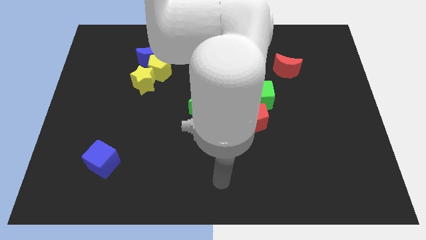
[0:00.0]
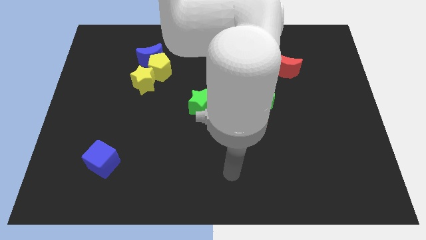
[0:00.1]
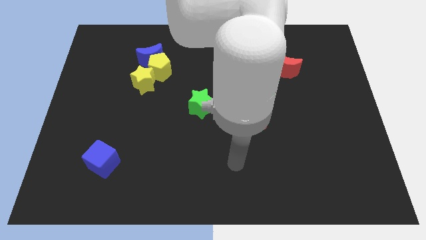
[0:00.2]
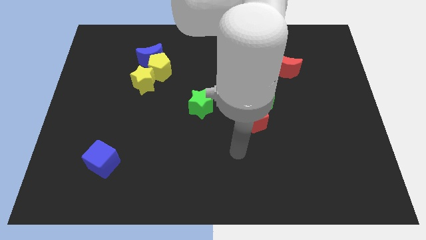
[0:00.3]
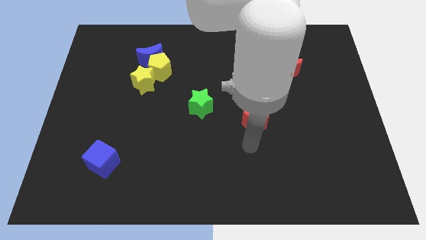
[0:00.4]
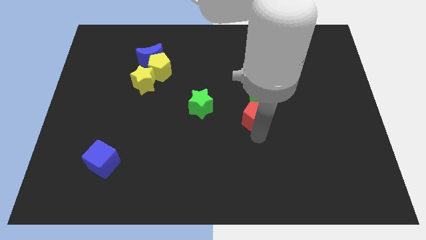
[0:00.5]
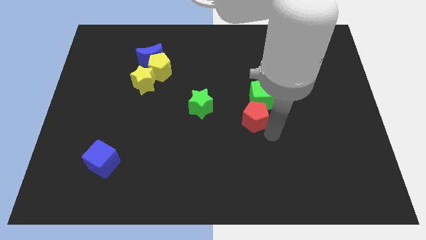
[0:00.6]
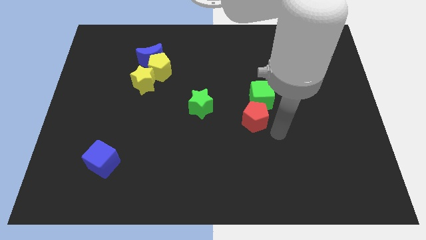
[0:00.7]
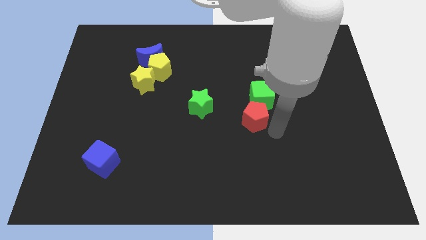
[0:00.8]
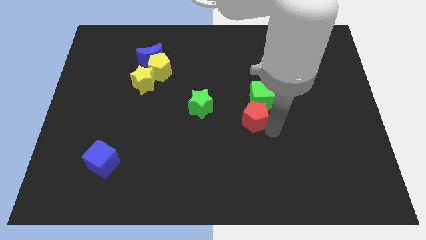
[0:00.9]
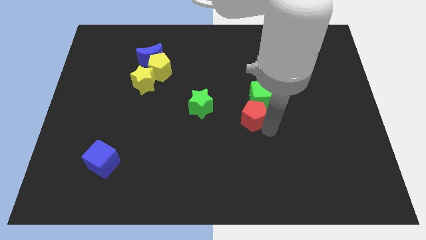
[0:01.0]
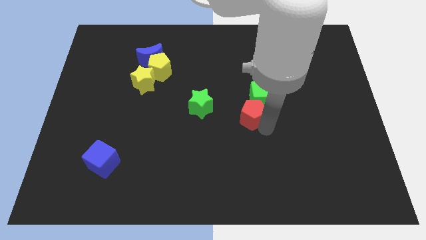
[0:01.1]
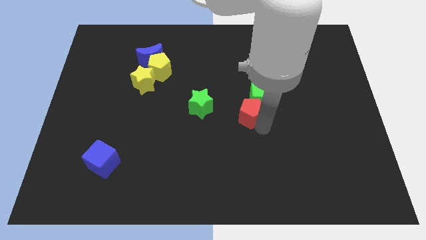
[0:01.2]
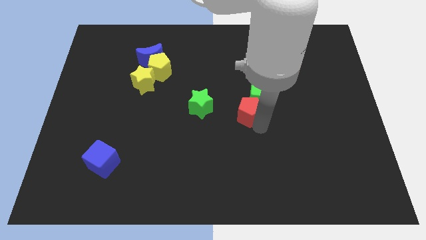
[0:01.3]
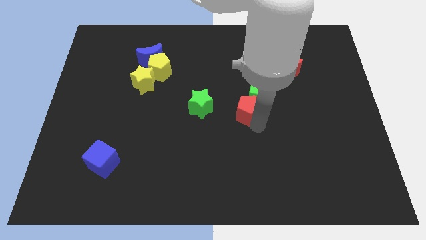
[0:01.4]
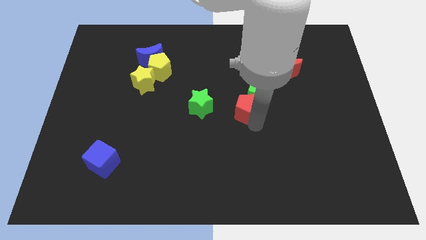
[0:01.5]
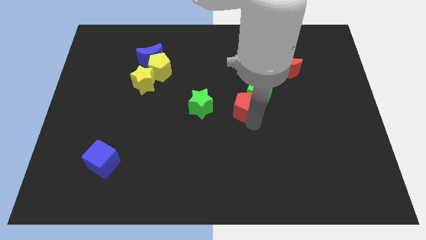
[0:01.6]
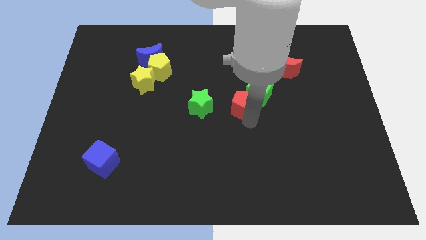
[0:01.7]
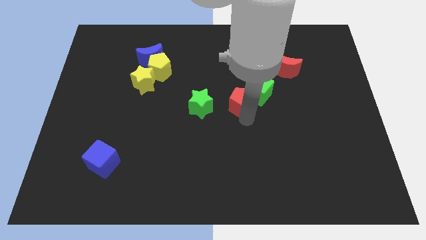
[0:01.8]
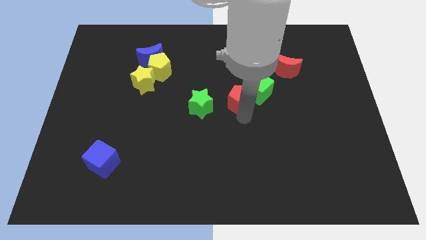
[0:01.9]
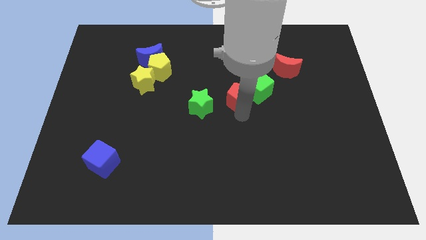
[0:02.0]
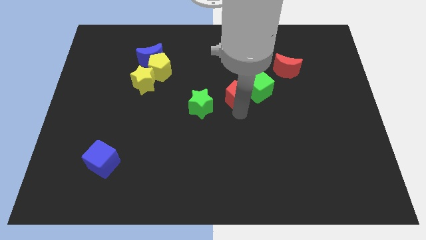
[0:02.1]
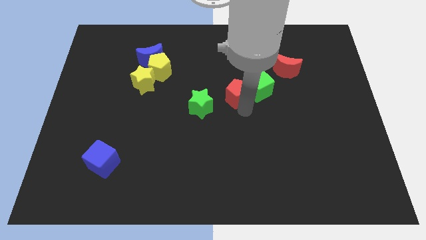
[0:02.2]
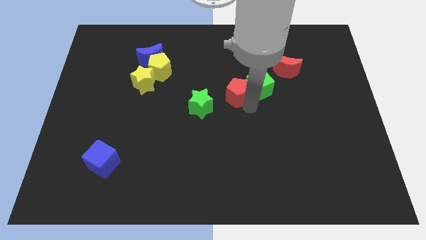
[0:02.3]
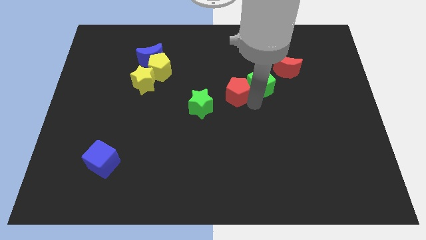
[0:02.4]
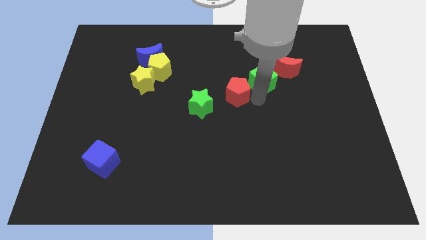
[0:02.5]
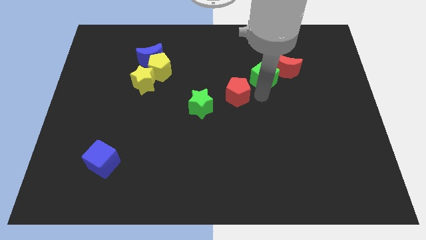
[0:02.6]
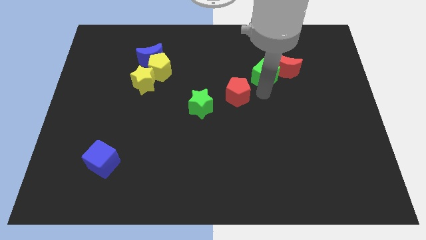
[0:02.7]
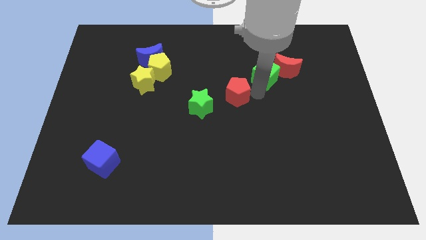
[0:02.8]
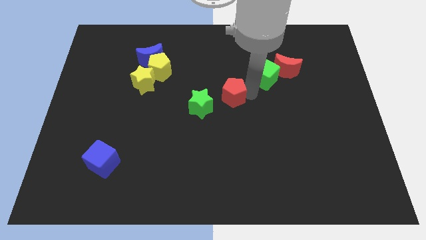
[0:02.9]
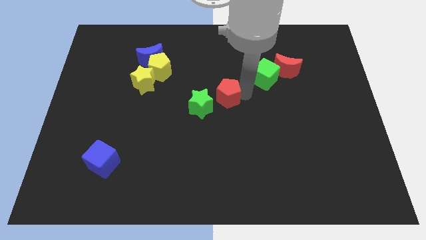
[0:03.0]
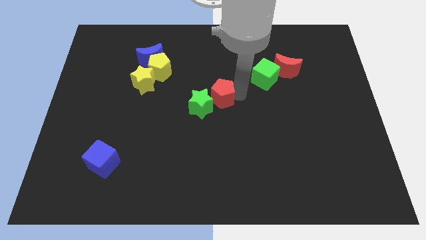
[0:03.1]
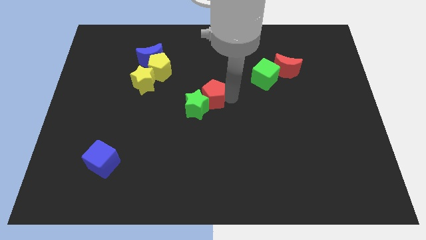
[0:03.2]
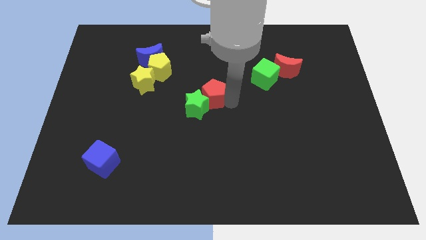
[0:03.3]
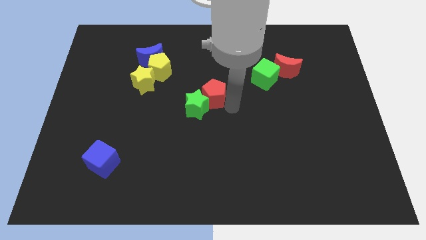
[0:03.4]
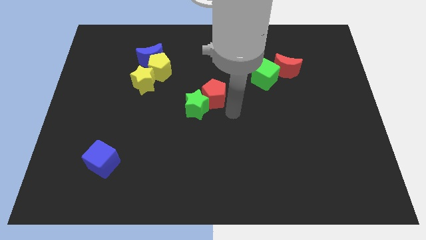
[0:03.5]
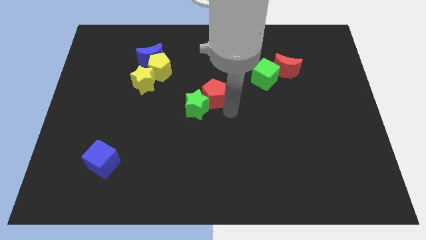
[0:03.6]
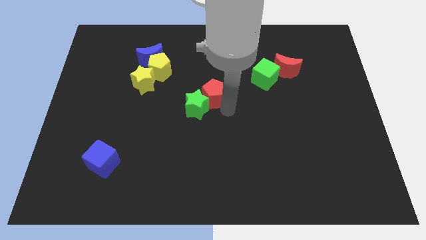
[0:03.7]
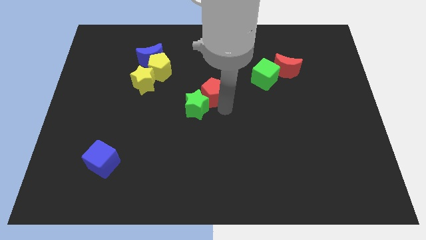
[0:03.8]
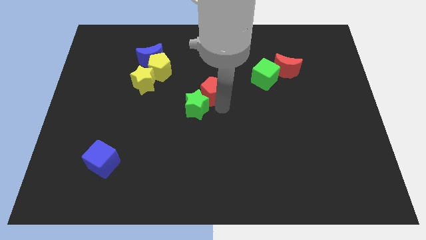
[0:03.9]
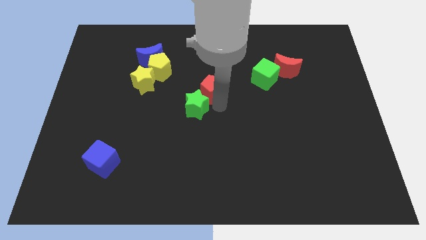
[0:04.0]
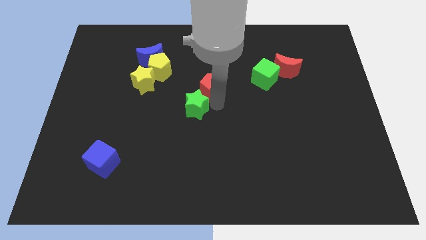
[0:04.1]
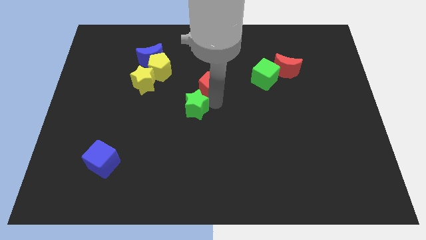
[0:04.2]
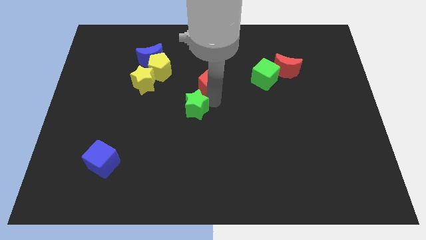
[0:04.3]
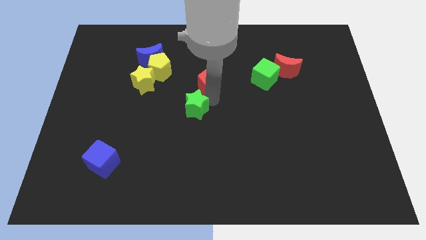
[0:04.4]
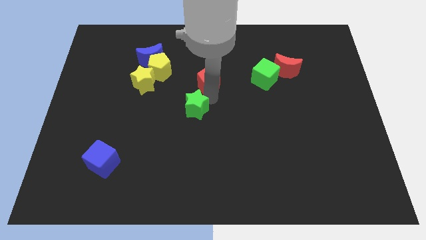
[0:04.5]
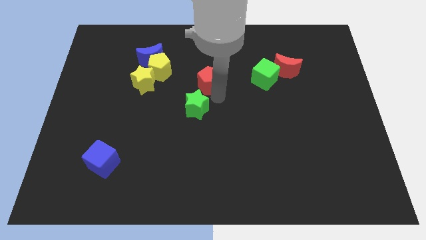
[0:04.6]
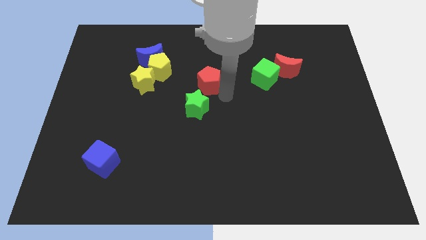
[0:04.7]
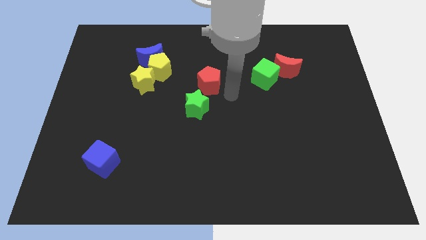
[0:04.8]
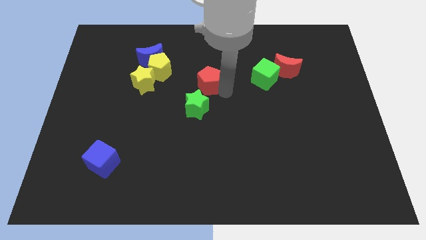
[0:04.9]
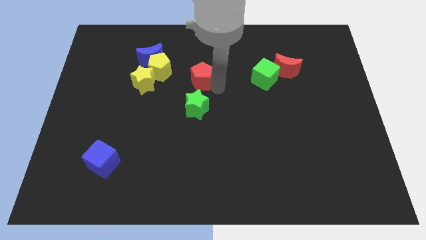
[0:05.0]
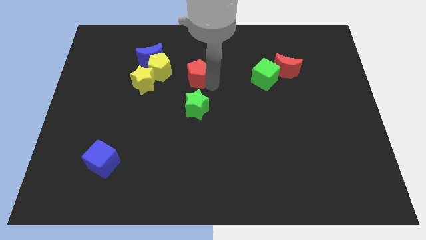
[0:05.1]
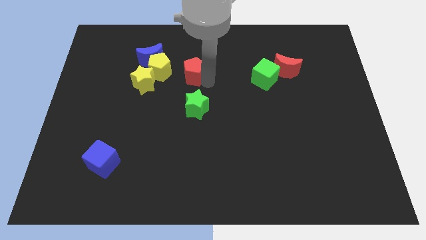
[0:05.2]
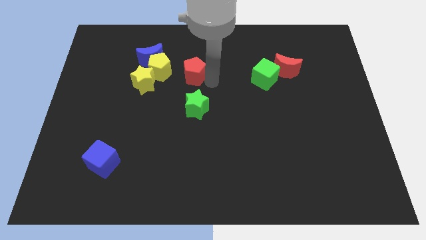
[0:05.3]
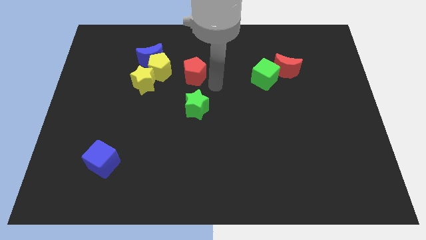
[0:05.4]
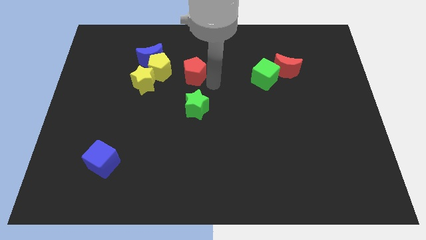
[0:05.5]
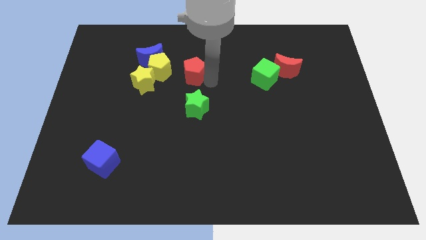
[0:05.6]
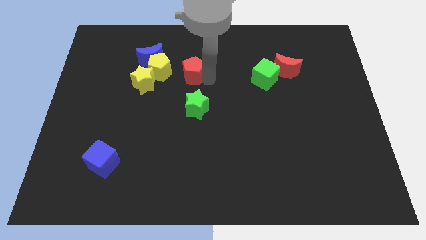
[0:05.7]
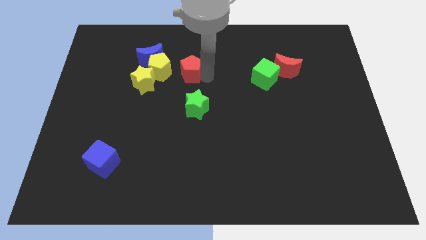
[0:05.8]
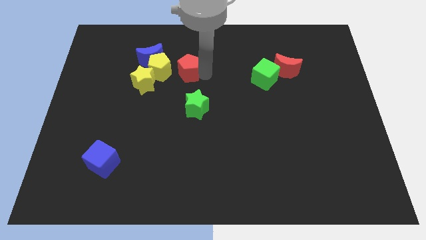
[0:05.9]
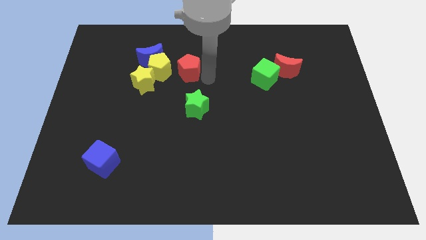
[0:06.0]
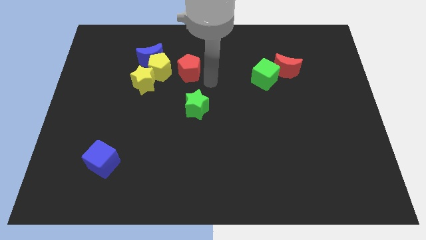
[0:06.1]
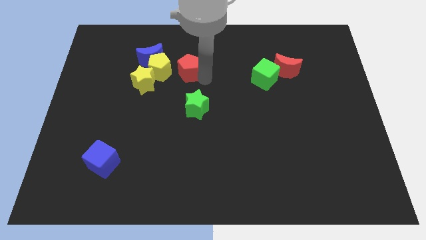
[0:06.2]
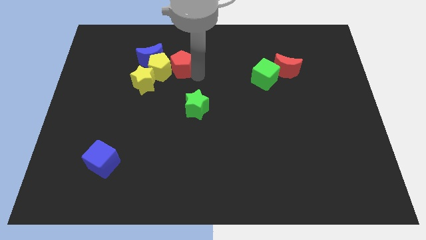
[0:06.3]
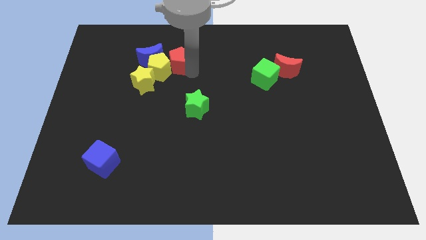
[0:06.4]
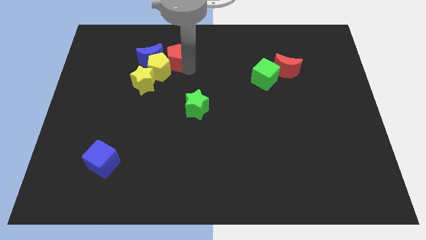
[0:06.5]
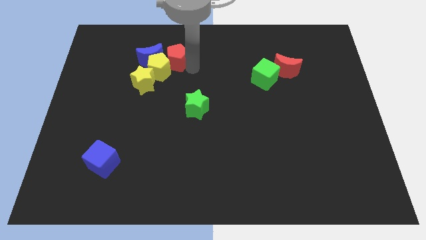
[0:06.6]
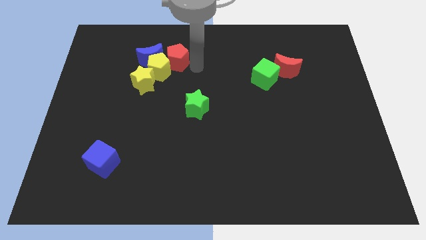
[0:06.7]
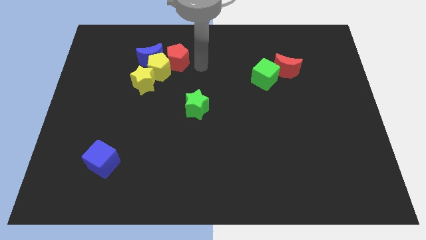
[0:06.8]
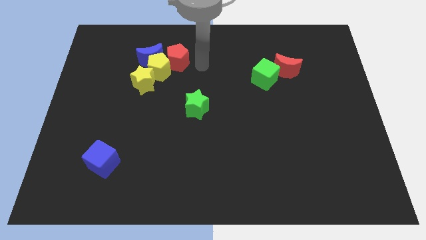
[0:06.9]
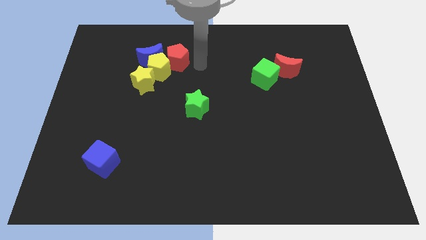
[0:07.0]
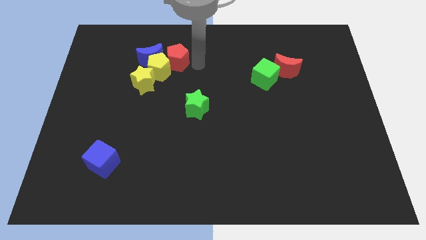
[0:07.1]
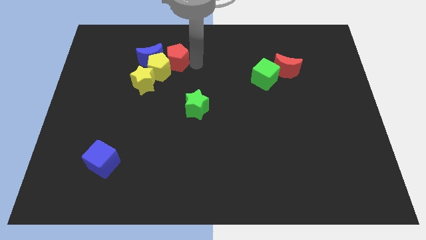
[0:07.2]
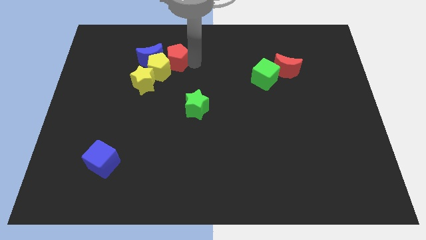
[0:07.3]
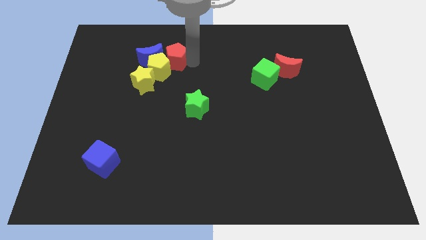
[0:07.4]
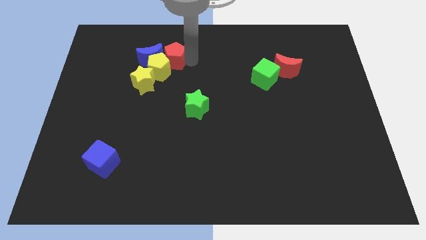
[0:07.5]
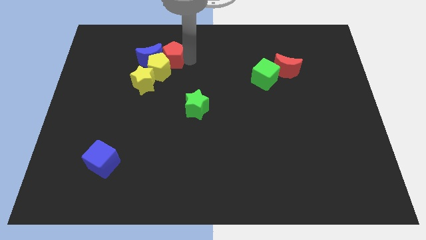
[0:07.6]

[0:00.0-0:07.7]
move the red pentagon towards the blue moon
